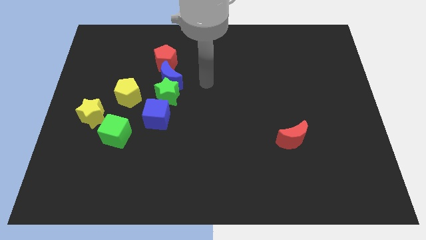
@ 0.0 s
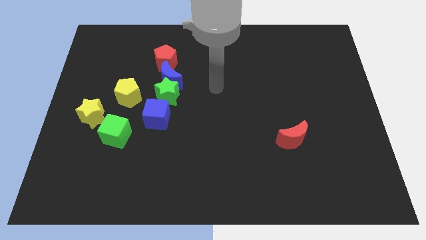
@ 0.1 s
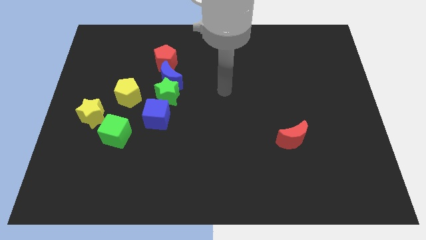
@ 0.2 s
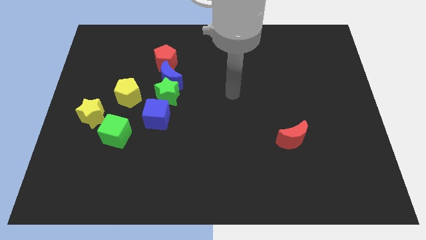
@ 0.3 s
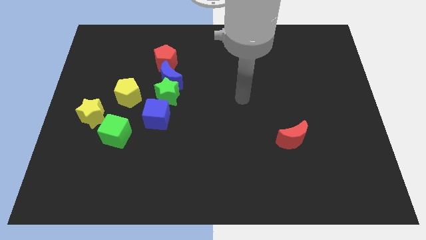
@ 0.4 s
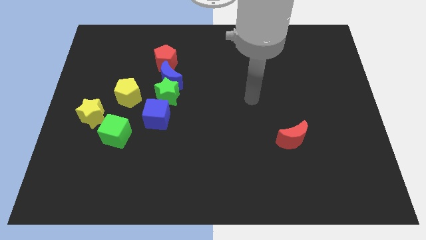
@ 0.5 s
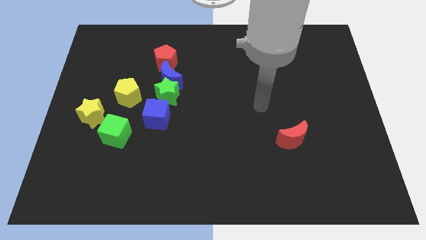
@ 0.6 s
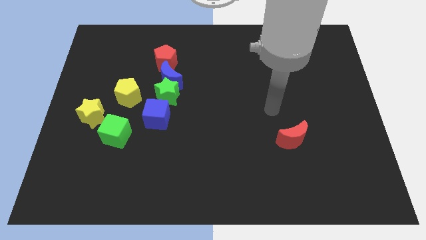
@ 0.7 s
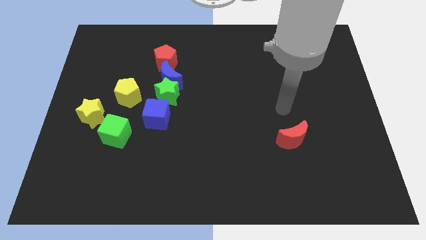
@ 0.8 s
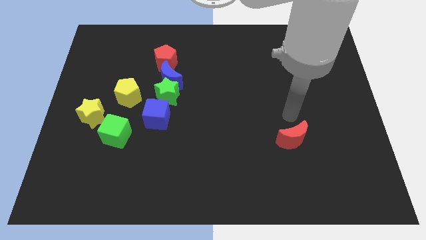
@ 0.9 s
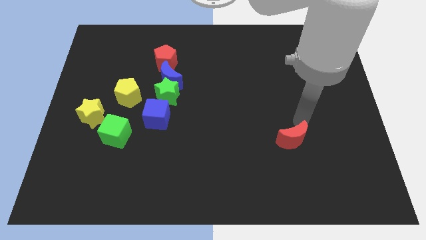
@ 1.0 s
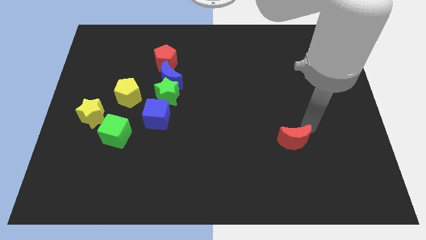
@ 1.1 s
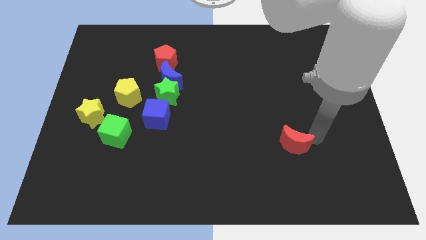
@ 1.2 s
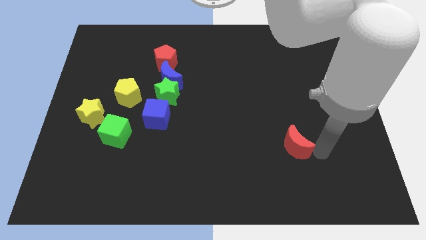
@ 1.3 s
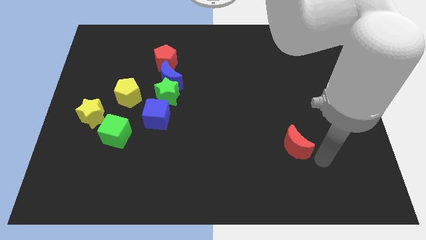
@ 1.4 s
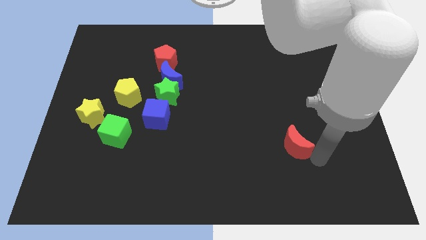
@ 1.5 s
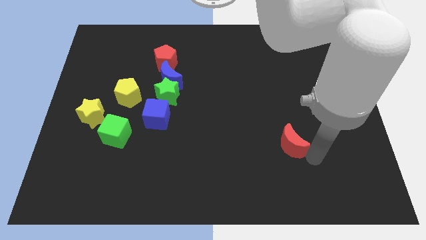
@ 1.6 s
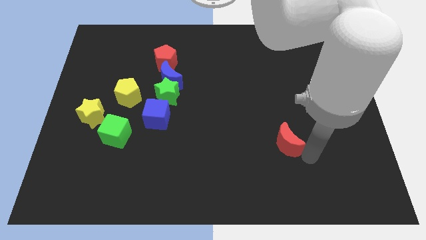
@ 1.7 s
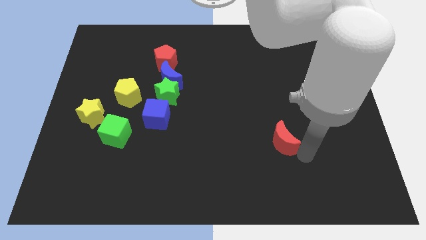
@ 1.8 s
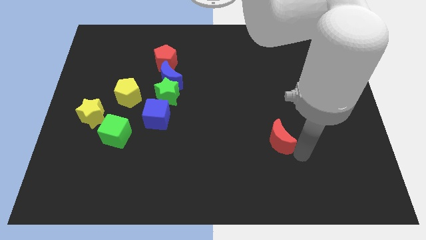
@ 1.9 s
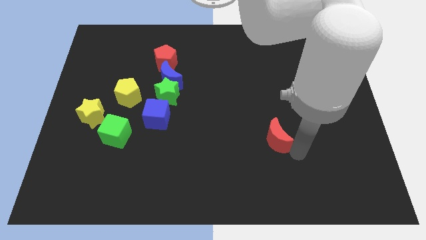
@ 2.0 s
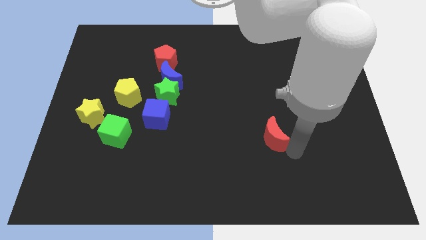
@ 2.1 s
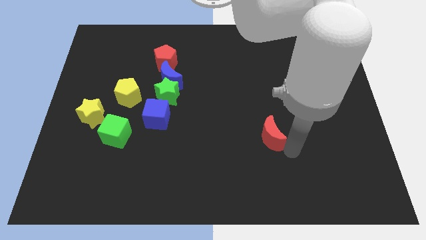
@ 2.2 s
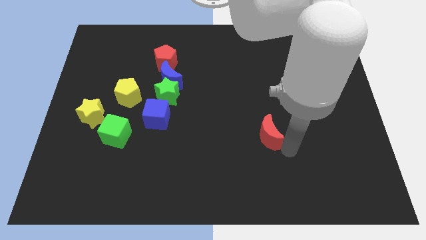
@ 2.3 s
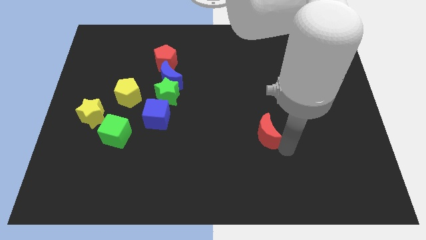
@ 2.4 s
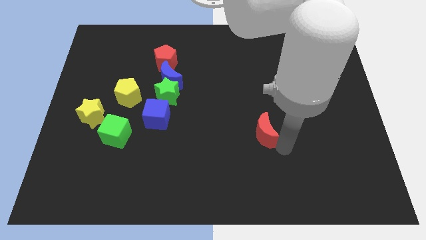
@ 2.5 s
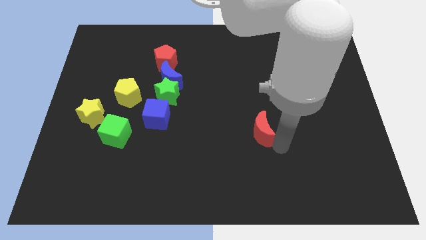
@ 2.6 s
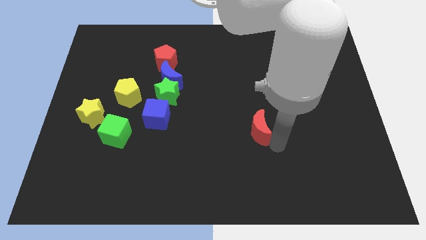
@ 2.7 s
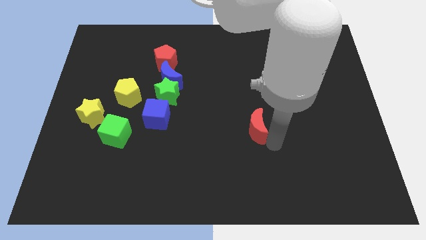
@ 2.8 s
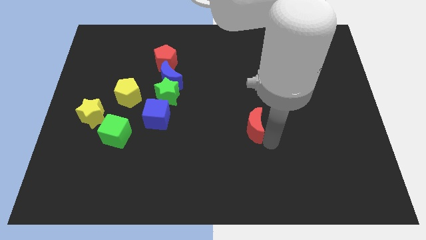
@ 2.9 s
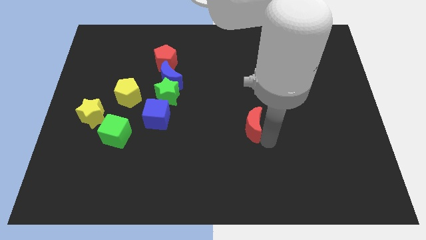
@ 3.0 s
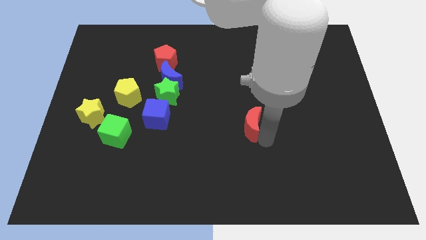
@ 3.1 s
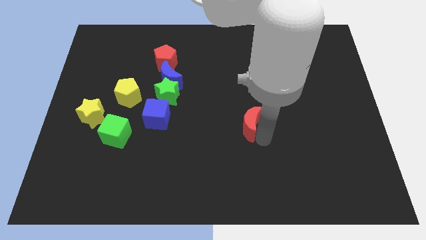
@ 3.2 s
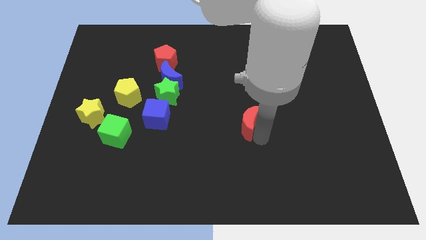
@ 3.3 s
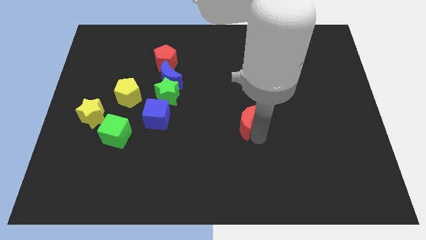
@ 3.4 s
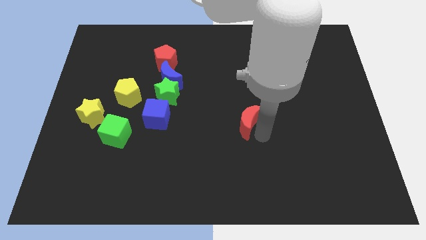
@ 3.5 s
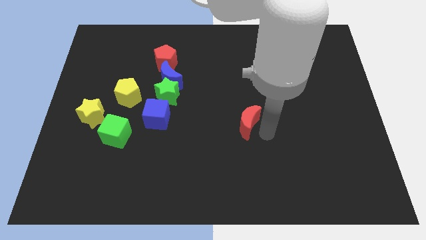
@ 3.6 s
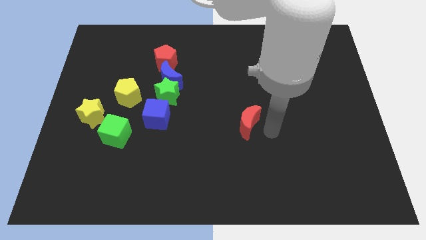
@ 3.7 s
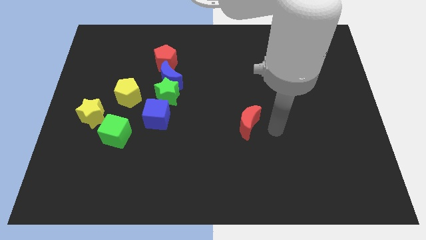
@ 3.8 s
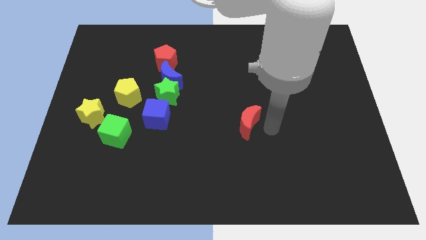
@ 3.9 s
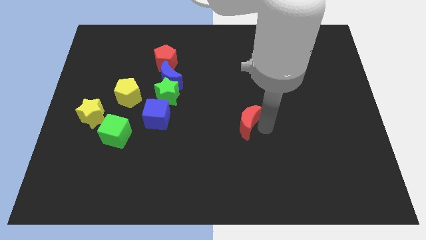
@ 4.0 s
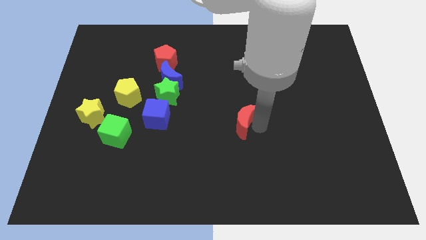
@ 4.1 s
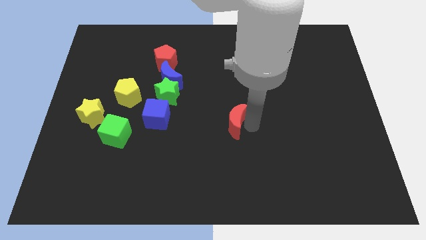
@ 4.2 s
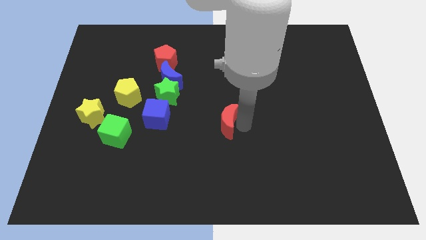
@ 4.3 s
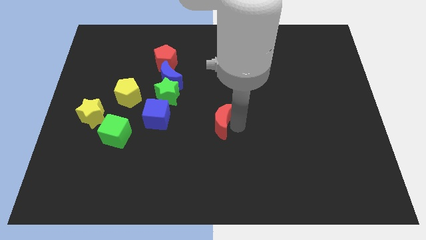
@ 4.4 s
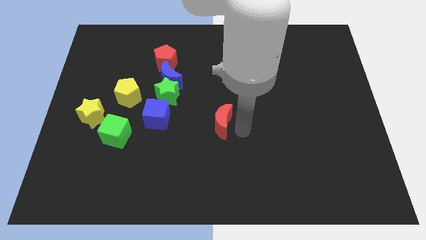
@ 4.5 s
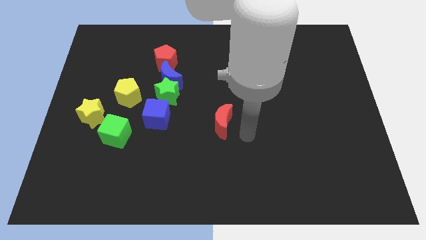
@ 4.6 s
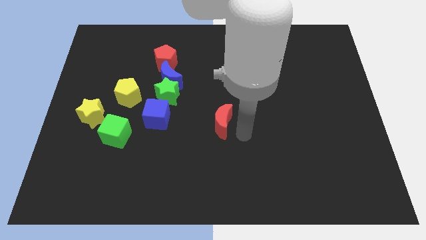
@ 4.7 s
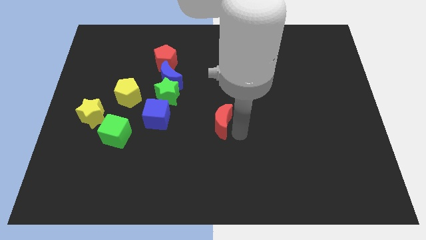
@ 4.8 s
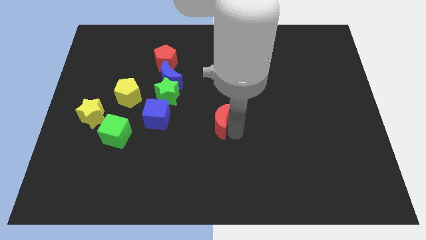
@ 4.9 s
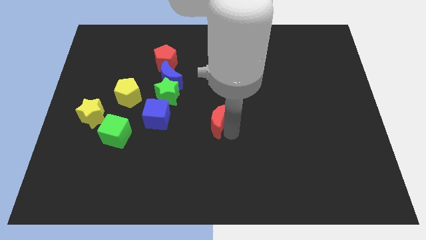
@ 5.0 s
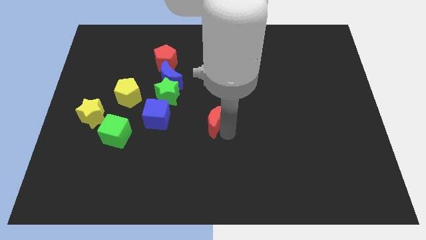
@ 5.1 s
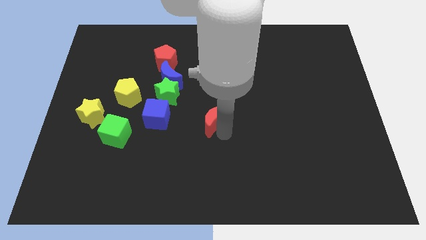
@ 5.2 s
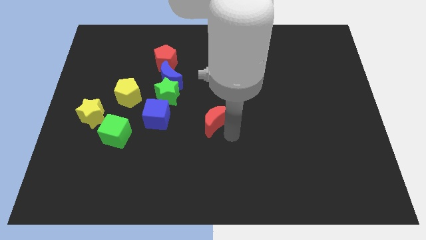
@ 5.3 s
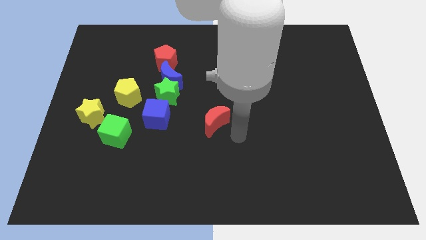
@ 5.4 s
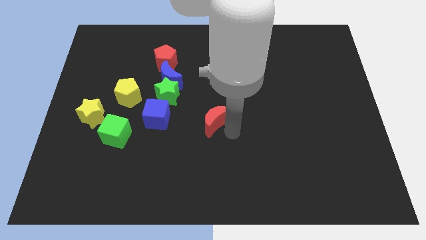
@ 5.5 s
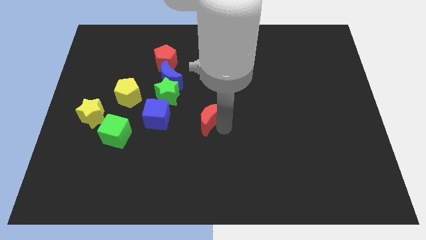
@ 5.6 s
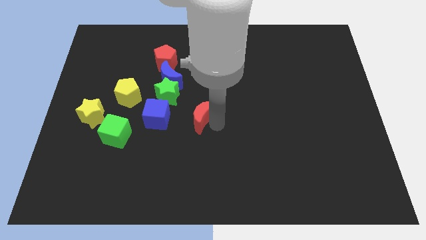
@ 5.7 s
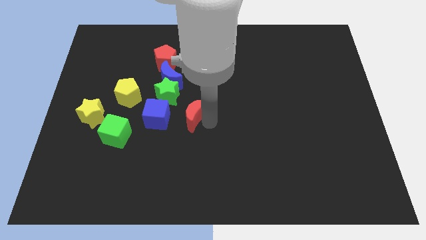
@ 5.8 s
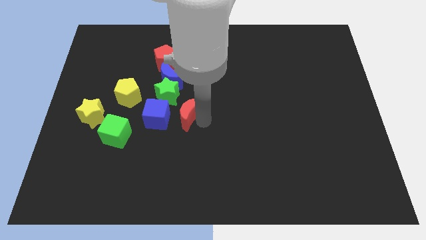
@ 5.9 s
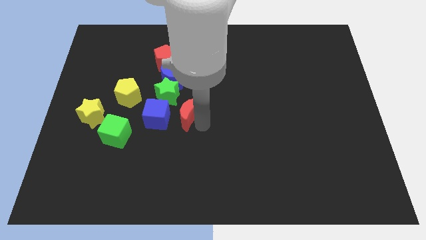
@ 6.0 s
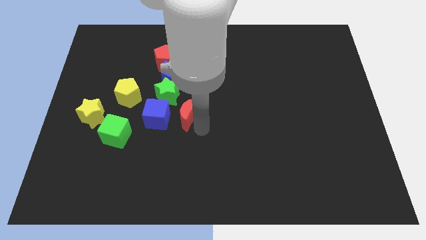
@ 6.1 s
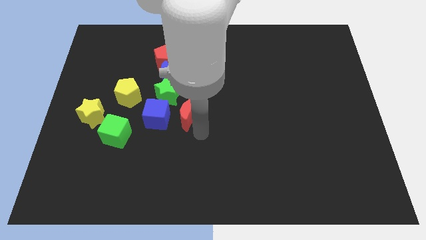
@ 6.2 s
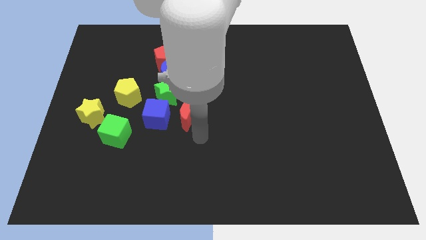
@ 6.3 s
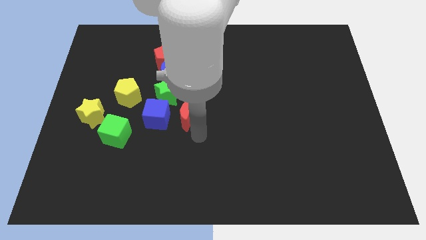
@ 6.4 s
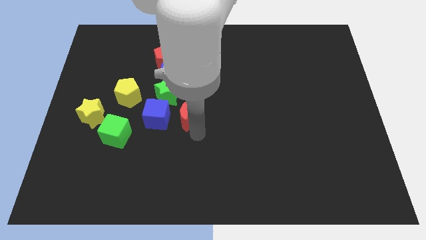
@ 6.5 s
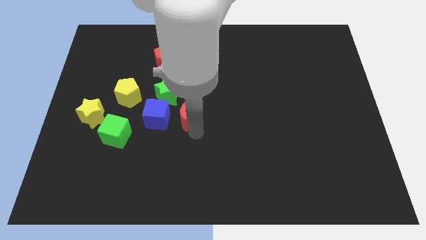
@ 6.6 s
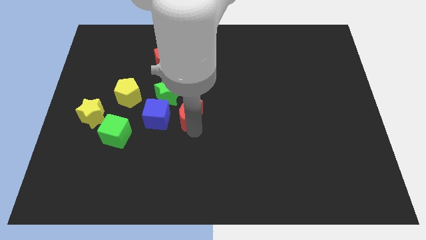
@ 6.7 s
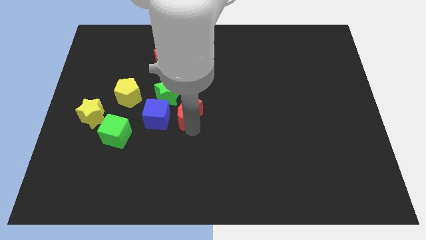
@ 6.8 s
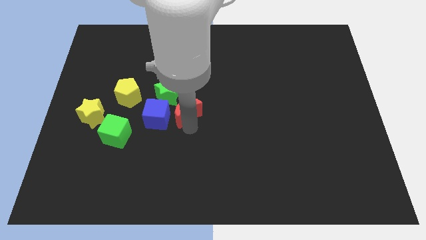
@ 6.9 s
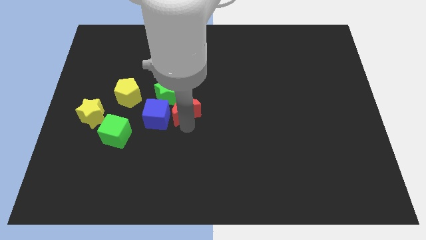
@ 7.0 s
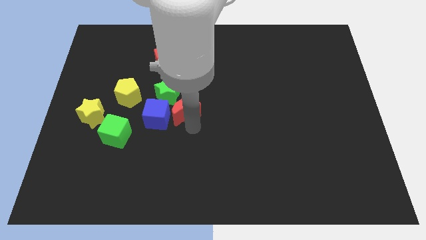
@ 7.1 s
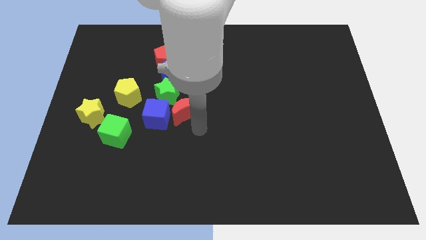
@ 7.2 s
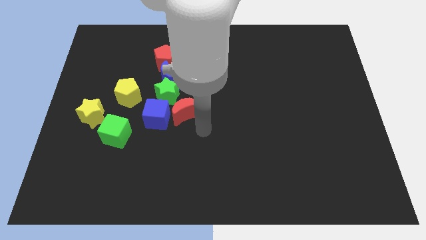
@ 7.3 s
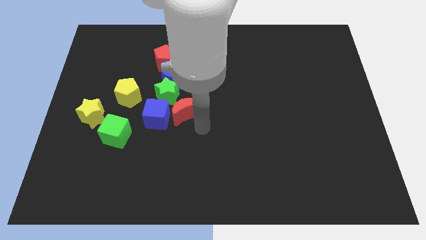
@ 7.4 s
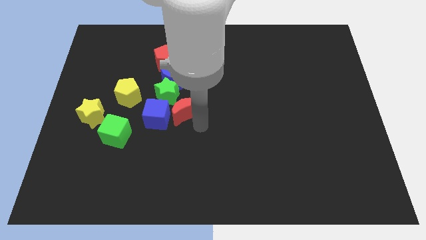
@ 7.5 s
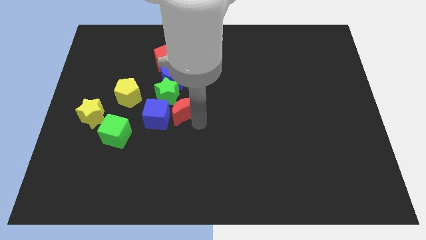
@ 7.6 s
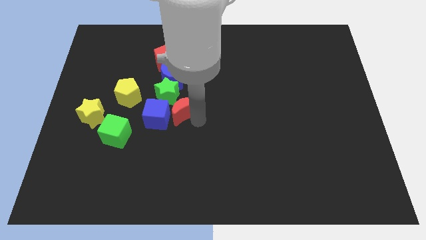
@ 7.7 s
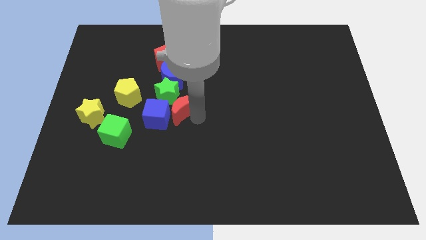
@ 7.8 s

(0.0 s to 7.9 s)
slide the red moon to the green star
